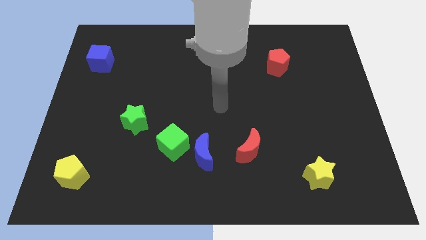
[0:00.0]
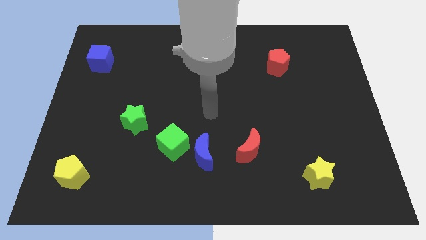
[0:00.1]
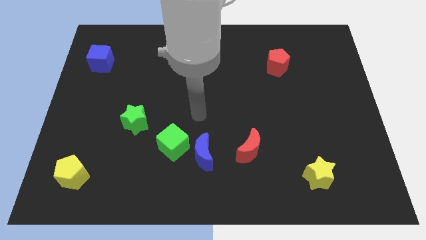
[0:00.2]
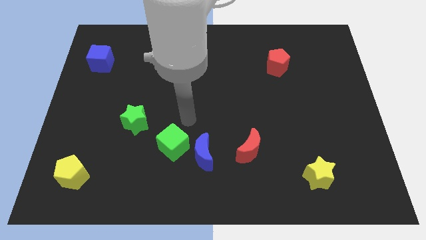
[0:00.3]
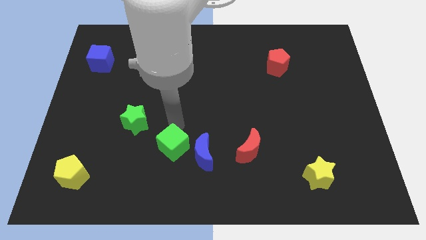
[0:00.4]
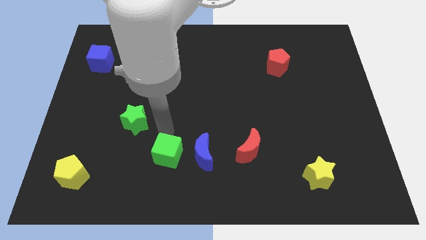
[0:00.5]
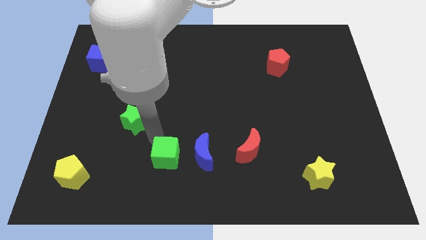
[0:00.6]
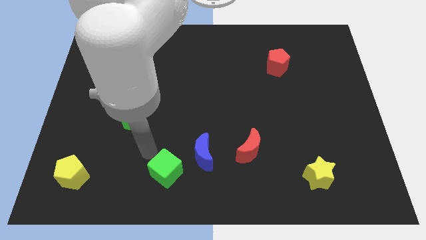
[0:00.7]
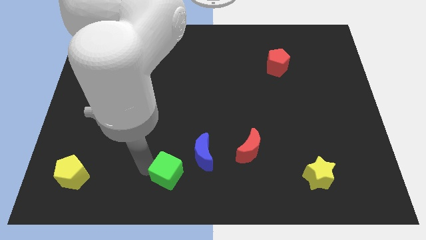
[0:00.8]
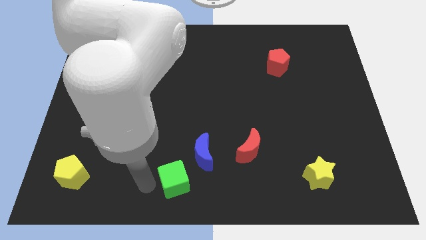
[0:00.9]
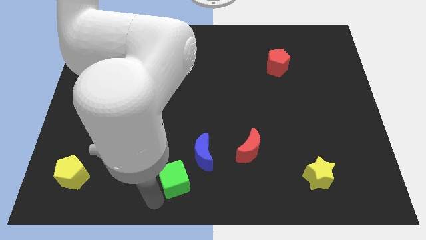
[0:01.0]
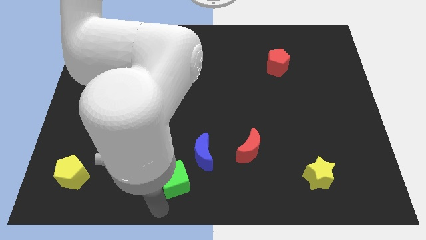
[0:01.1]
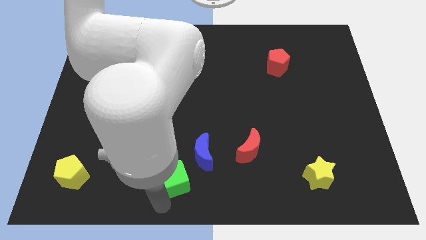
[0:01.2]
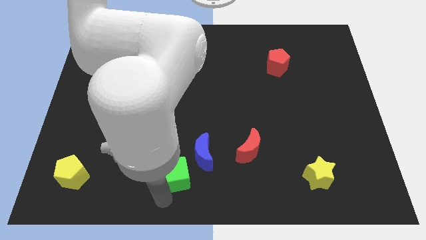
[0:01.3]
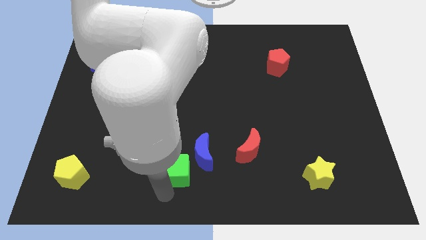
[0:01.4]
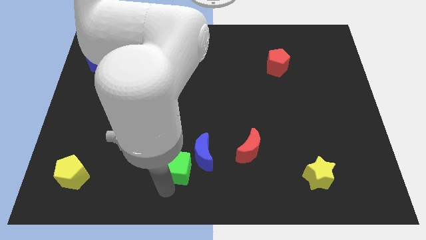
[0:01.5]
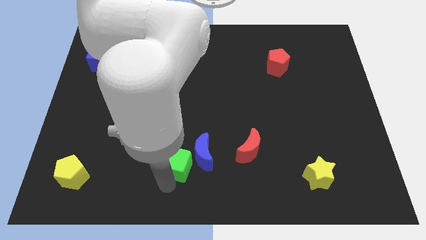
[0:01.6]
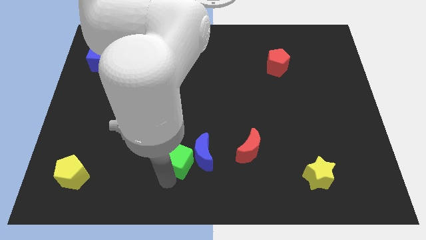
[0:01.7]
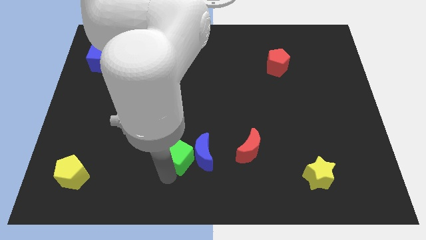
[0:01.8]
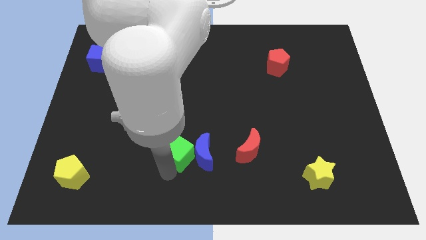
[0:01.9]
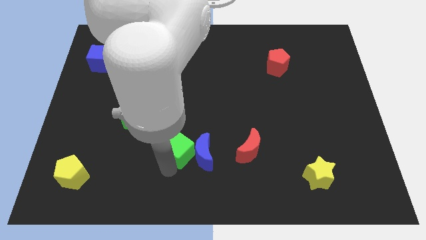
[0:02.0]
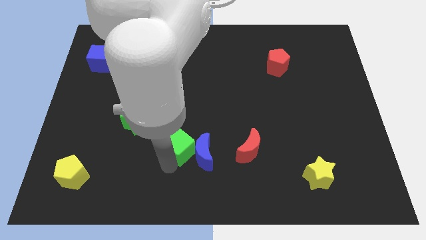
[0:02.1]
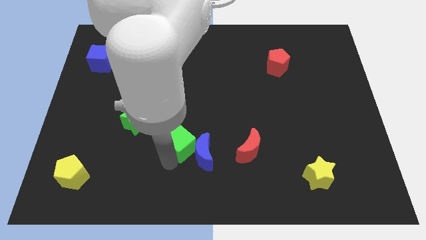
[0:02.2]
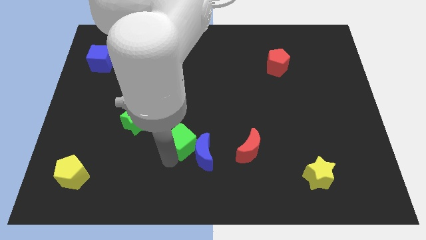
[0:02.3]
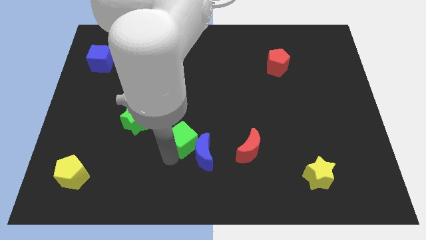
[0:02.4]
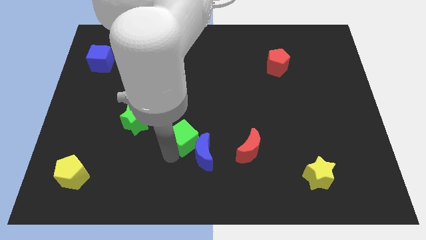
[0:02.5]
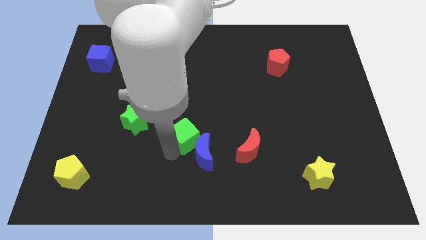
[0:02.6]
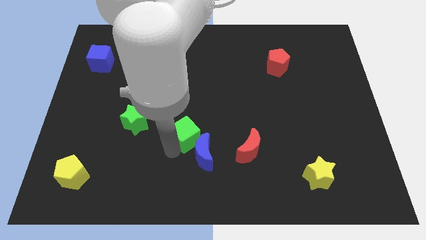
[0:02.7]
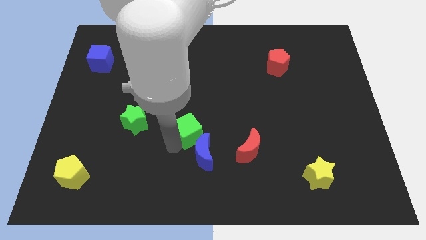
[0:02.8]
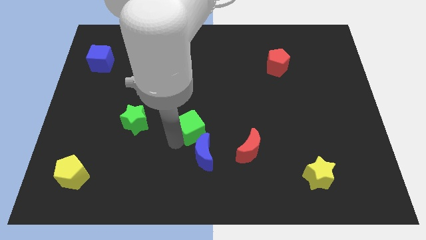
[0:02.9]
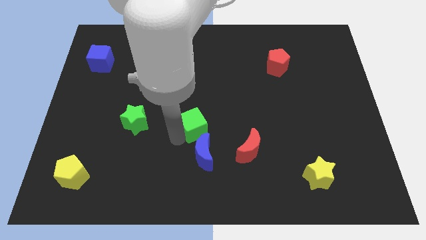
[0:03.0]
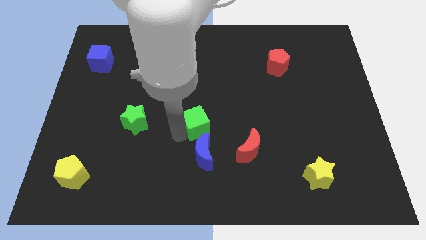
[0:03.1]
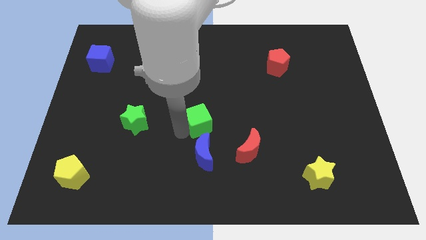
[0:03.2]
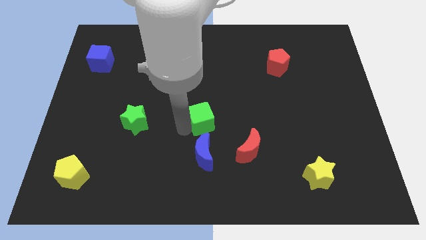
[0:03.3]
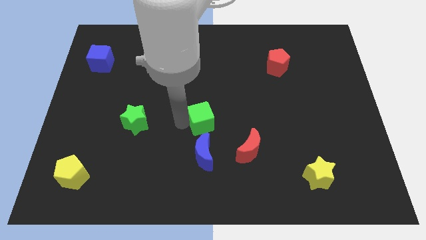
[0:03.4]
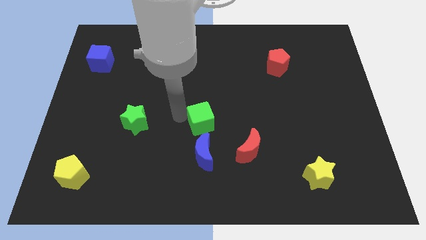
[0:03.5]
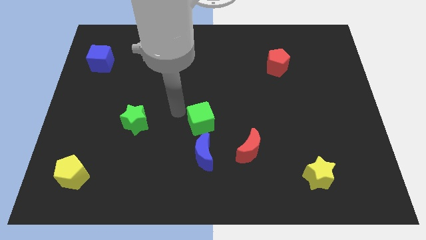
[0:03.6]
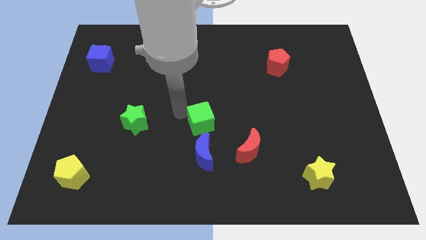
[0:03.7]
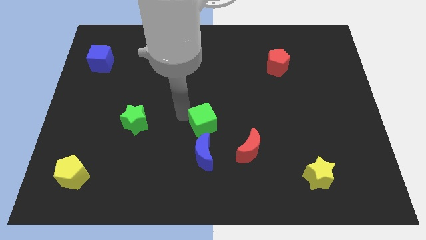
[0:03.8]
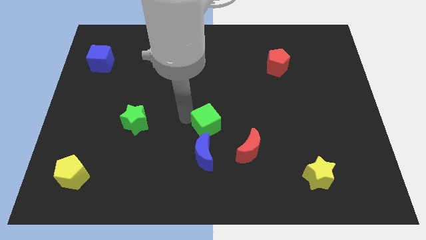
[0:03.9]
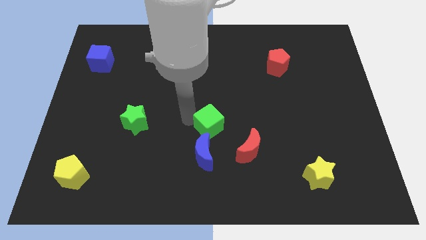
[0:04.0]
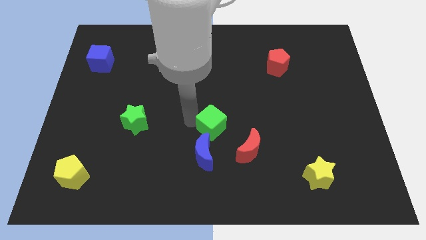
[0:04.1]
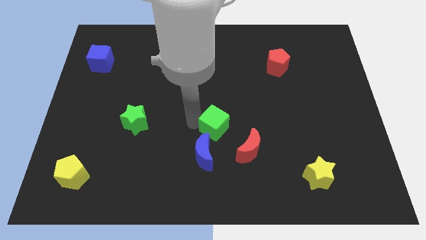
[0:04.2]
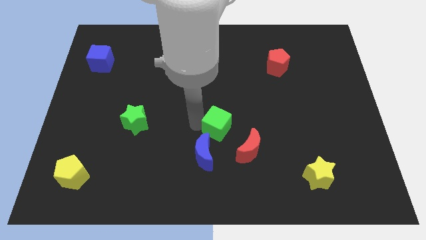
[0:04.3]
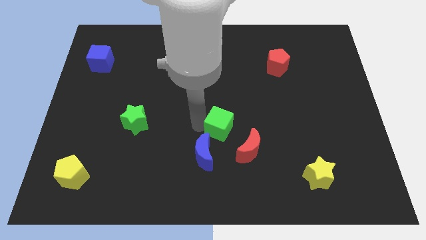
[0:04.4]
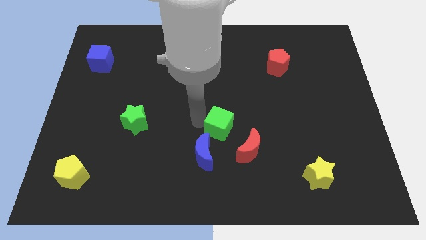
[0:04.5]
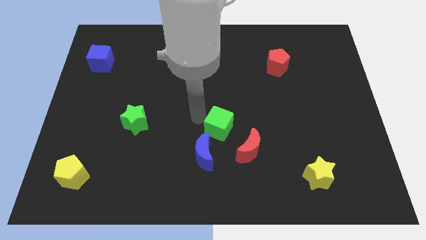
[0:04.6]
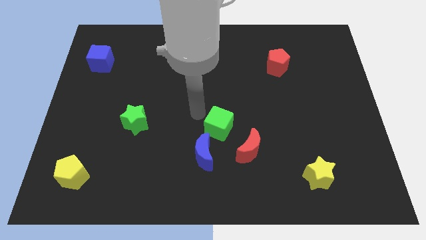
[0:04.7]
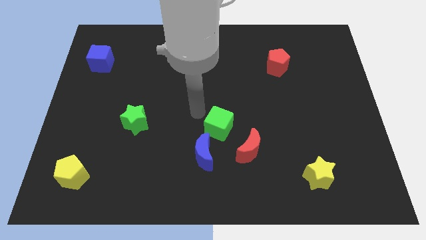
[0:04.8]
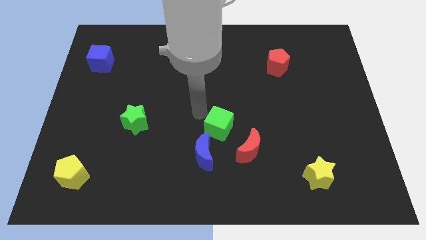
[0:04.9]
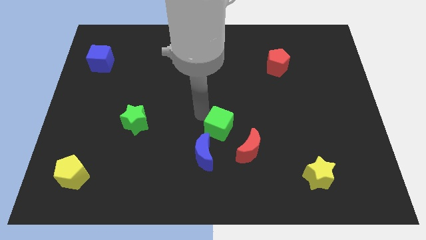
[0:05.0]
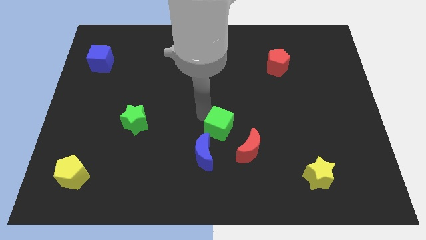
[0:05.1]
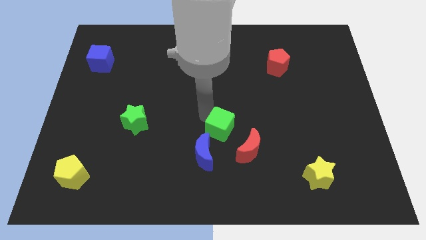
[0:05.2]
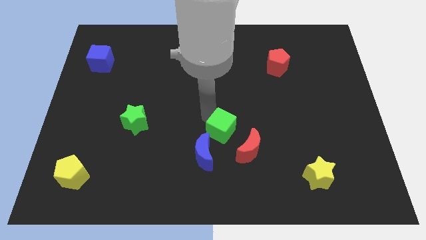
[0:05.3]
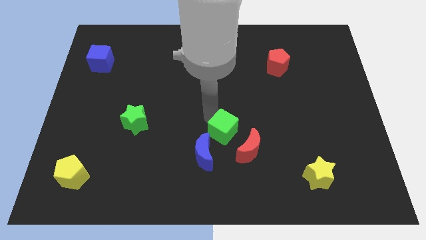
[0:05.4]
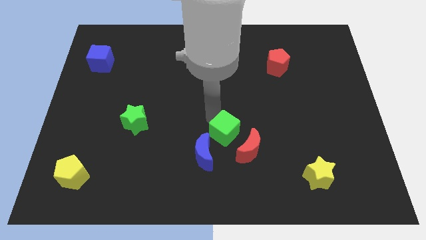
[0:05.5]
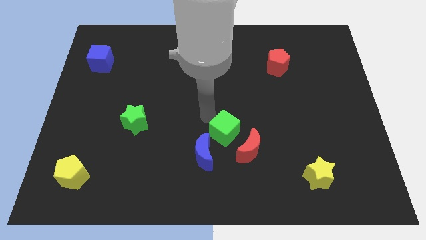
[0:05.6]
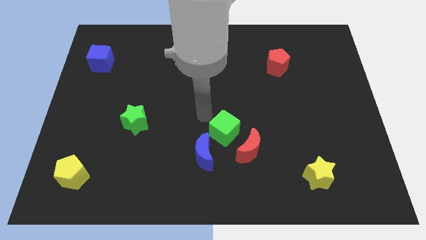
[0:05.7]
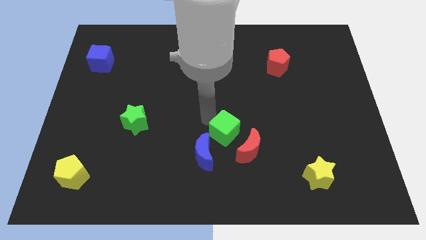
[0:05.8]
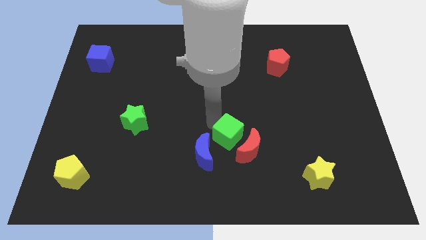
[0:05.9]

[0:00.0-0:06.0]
push the green cube next to the red moon

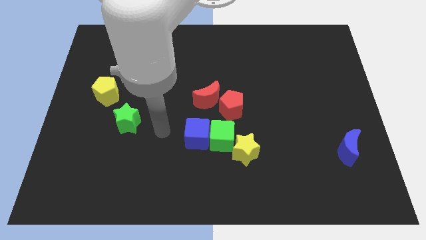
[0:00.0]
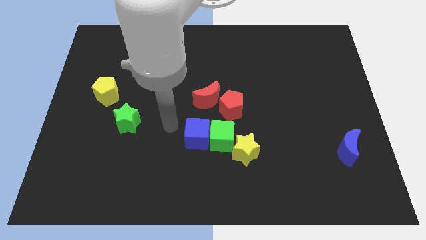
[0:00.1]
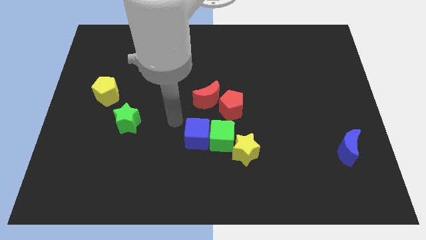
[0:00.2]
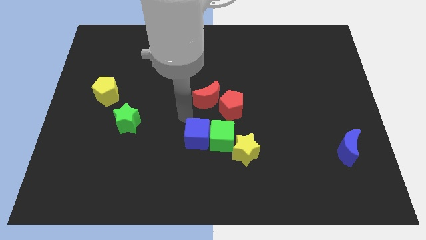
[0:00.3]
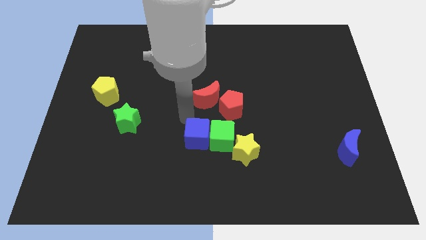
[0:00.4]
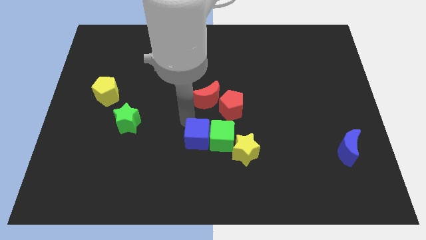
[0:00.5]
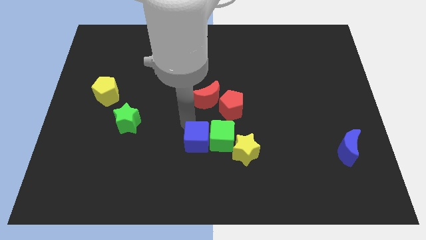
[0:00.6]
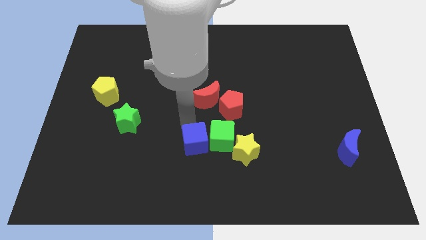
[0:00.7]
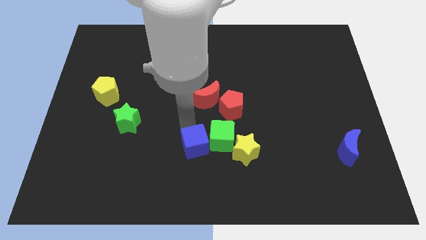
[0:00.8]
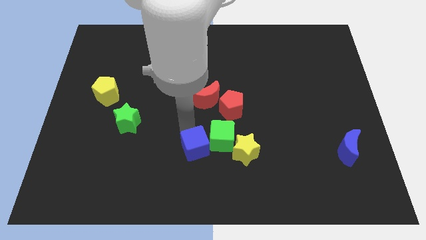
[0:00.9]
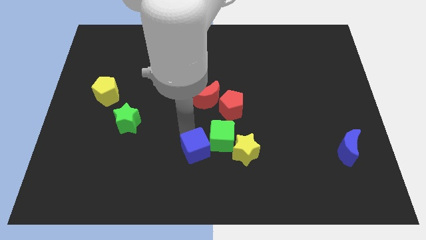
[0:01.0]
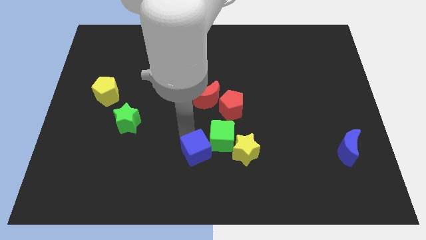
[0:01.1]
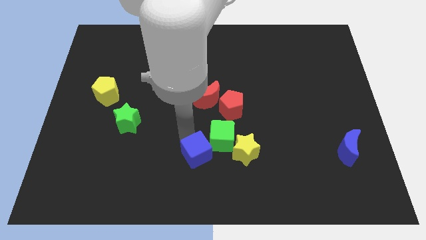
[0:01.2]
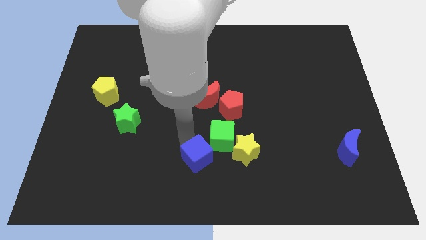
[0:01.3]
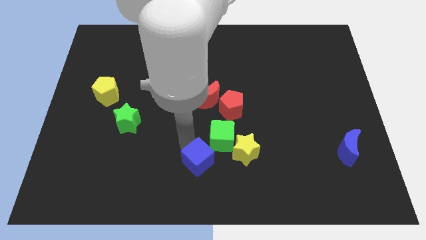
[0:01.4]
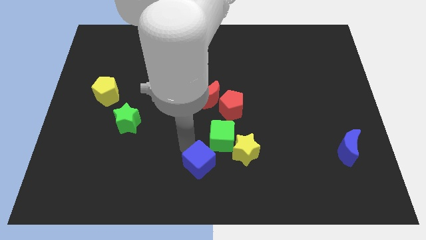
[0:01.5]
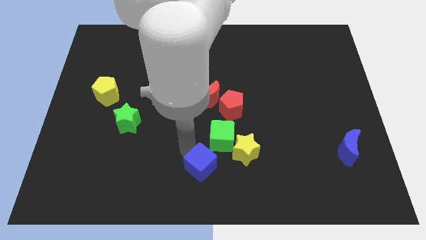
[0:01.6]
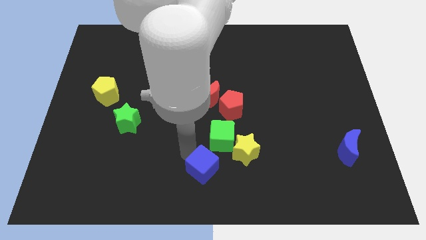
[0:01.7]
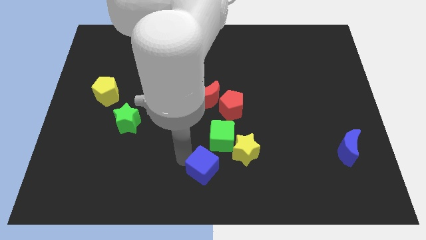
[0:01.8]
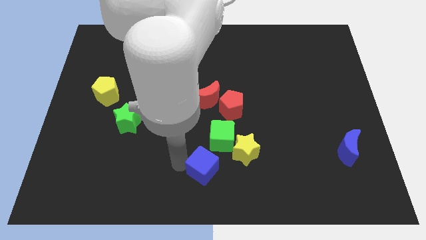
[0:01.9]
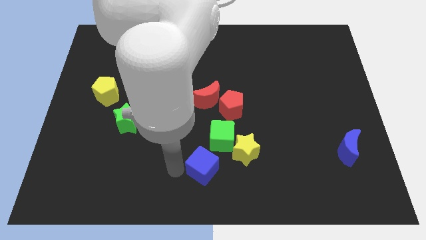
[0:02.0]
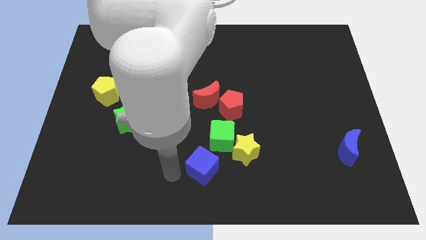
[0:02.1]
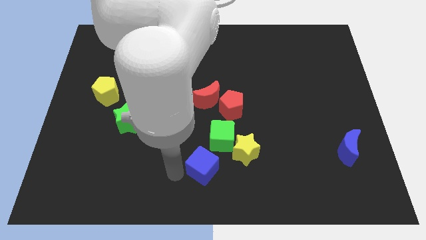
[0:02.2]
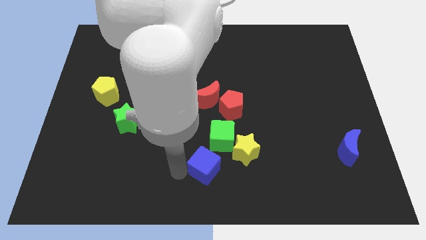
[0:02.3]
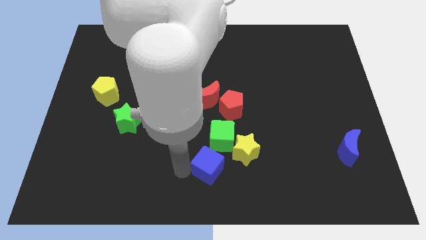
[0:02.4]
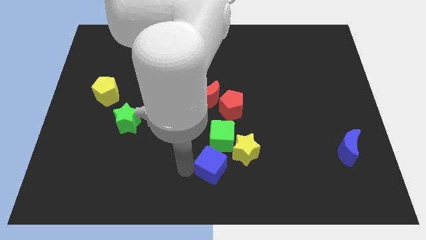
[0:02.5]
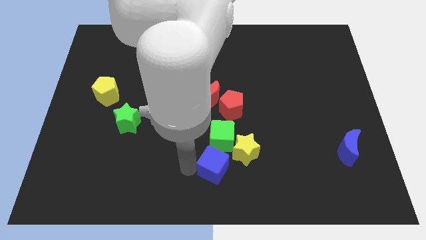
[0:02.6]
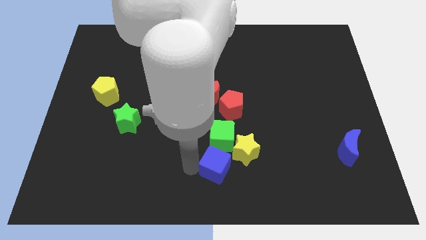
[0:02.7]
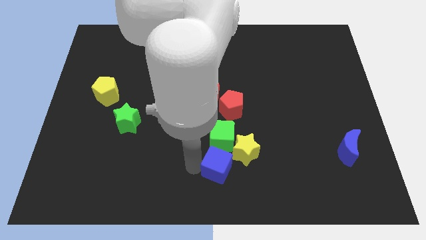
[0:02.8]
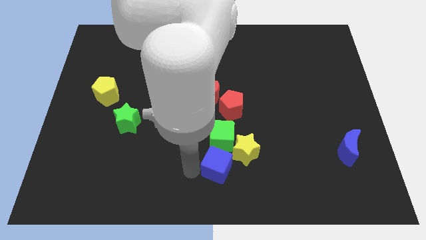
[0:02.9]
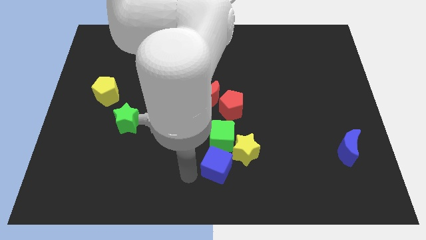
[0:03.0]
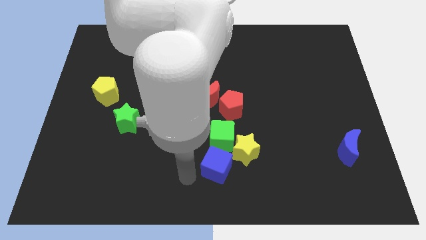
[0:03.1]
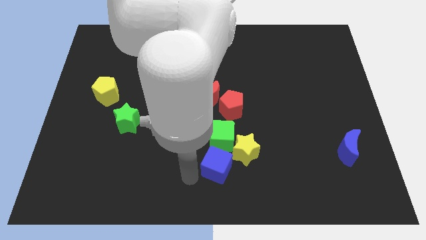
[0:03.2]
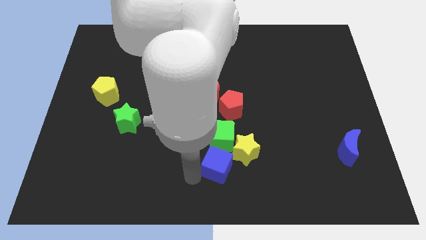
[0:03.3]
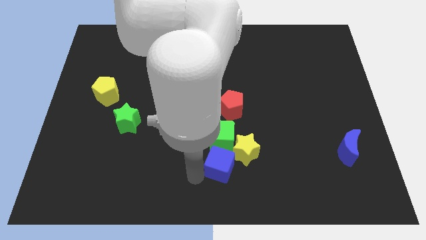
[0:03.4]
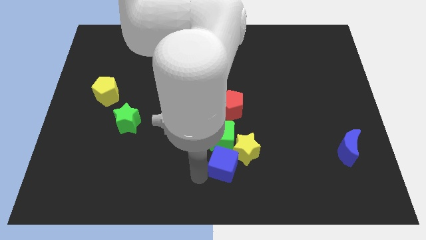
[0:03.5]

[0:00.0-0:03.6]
push the blue cube to the yellow star
